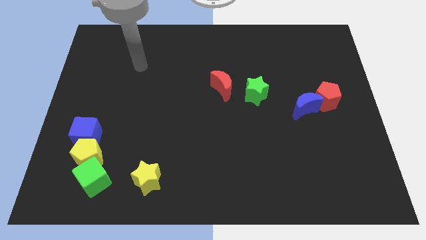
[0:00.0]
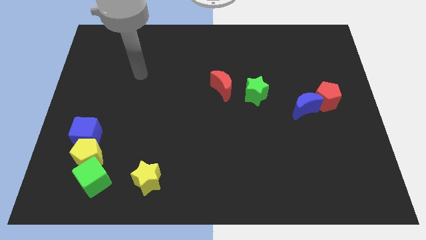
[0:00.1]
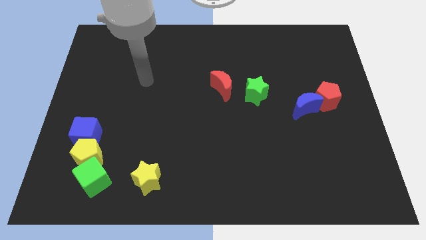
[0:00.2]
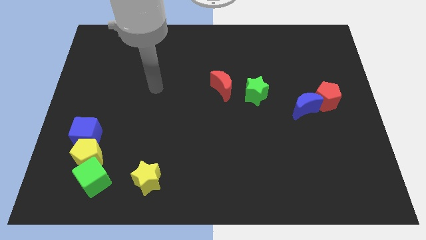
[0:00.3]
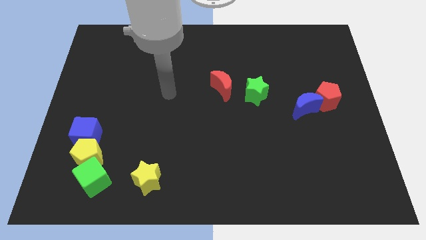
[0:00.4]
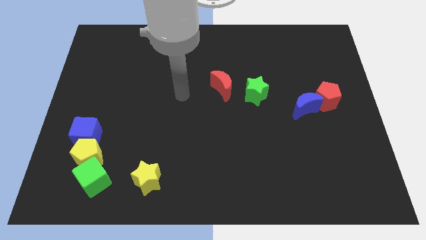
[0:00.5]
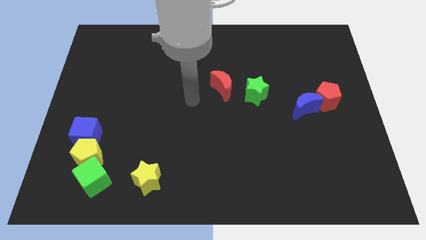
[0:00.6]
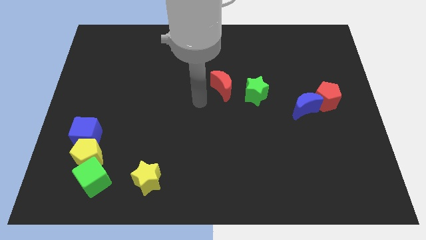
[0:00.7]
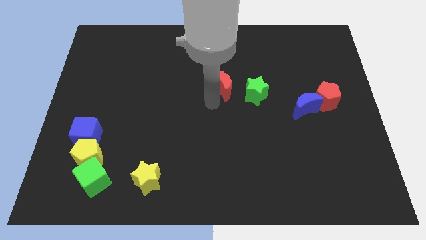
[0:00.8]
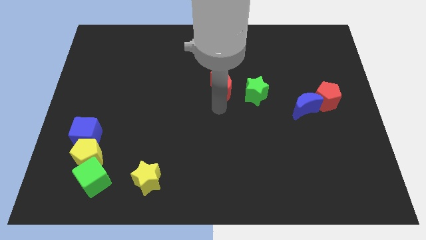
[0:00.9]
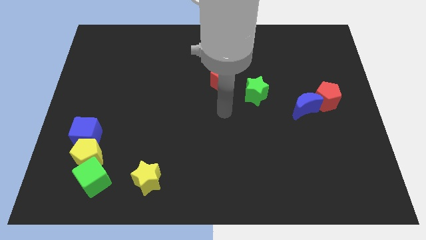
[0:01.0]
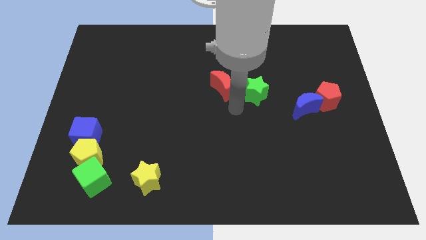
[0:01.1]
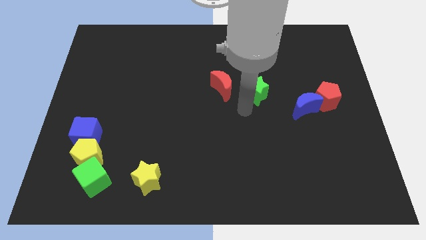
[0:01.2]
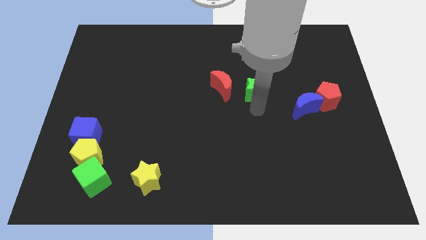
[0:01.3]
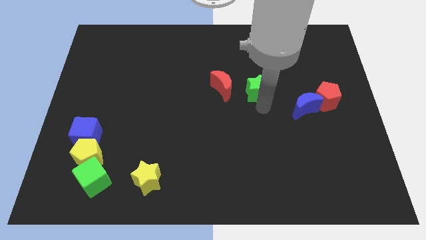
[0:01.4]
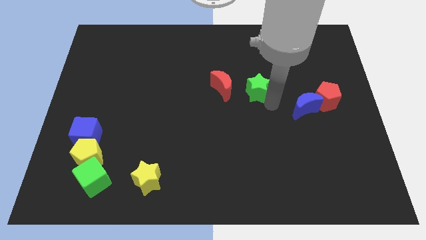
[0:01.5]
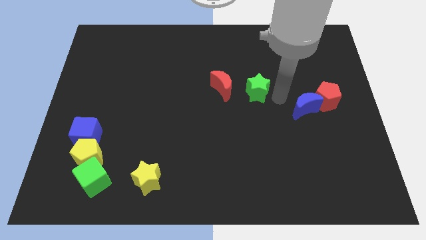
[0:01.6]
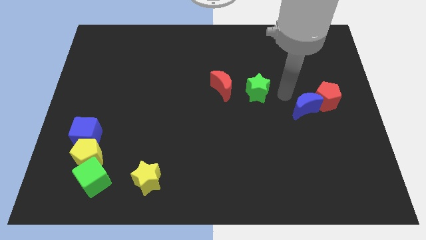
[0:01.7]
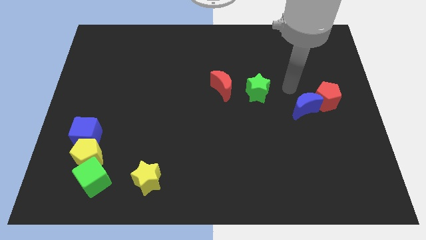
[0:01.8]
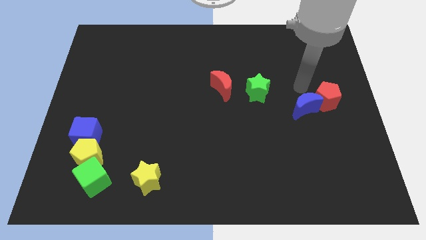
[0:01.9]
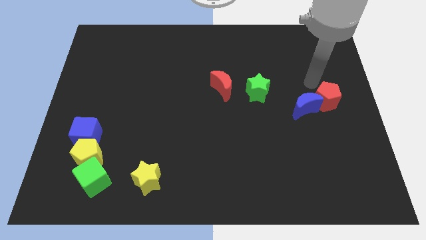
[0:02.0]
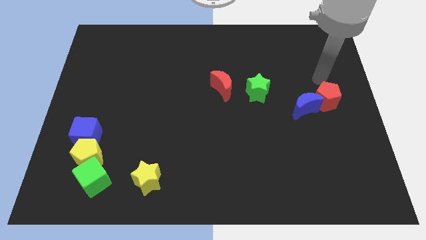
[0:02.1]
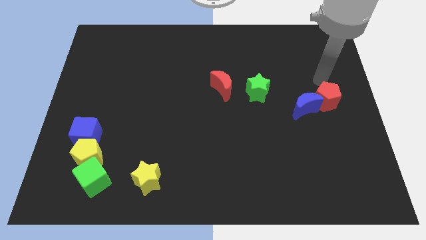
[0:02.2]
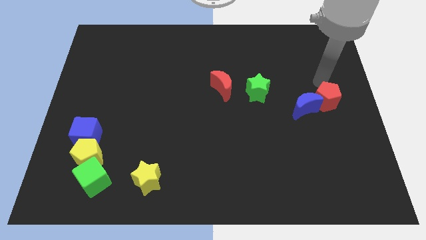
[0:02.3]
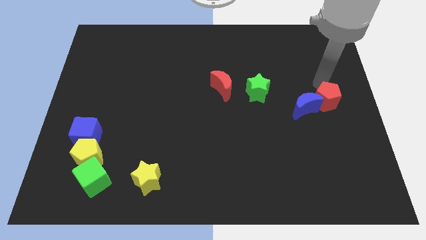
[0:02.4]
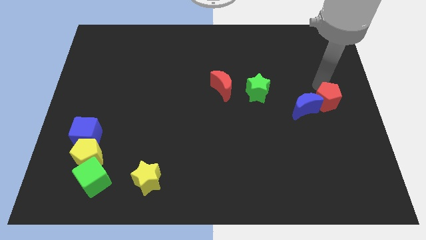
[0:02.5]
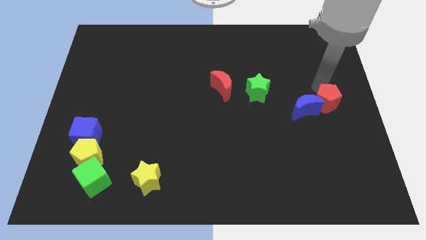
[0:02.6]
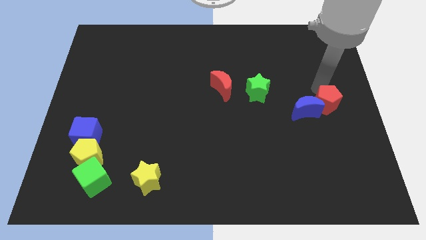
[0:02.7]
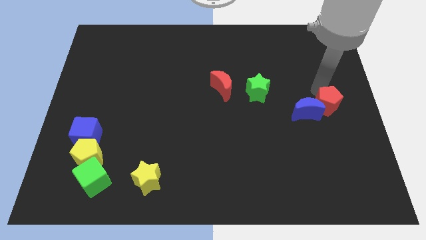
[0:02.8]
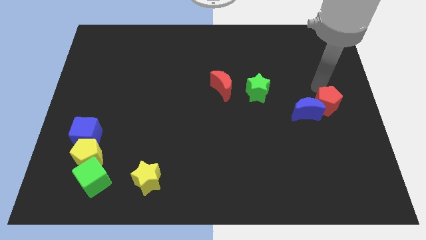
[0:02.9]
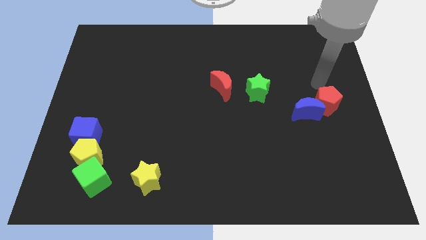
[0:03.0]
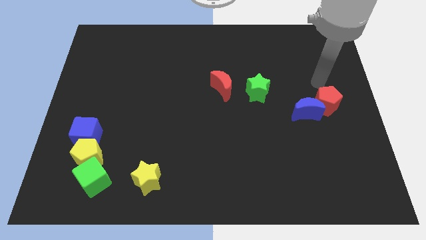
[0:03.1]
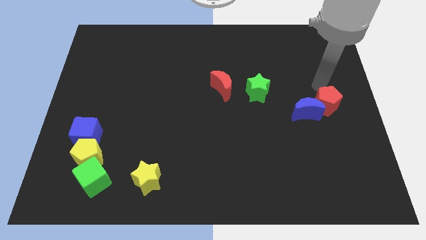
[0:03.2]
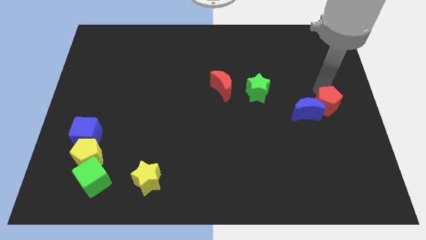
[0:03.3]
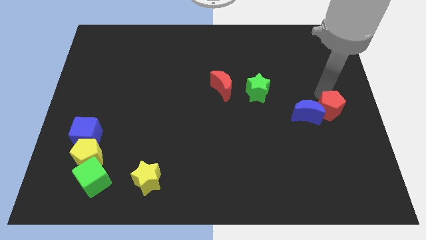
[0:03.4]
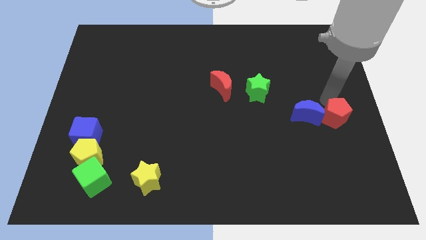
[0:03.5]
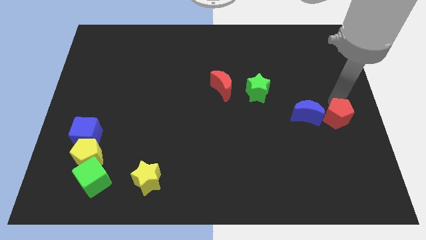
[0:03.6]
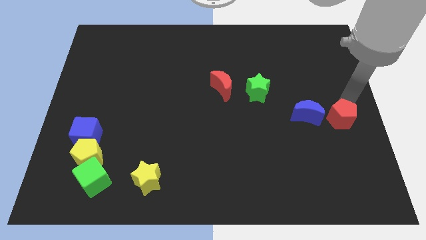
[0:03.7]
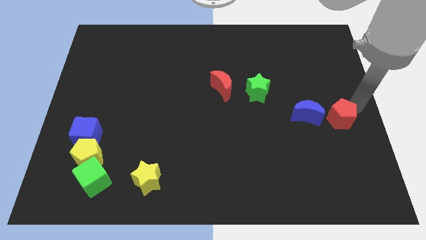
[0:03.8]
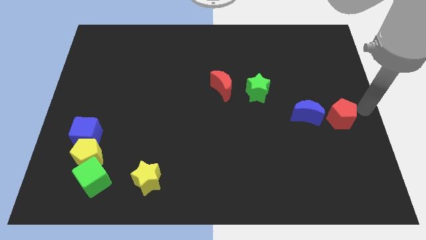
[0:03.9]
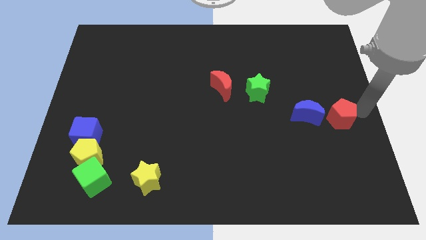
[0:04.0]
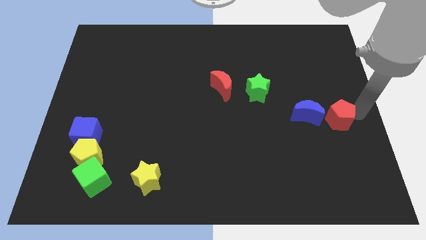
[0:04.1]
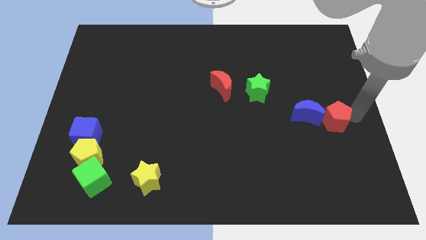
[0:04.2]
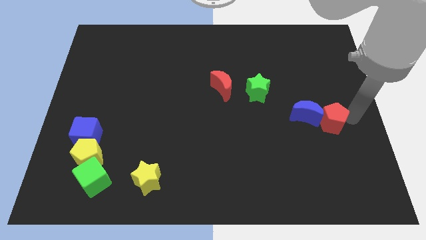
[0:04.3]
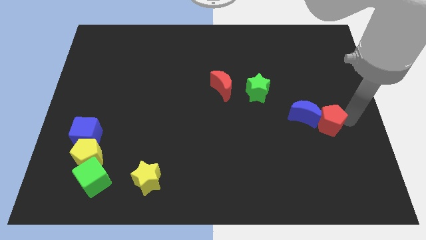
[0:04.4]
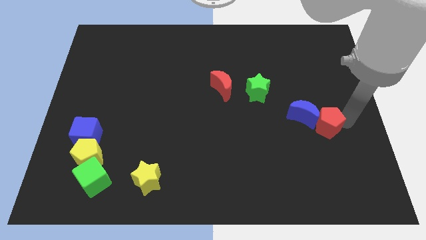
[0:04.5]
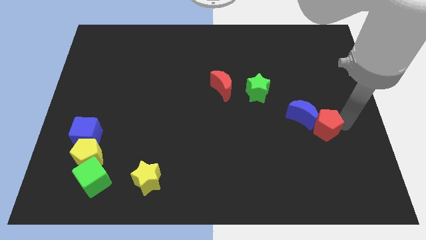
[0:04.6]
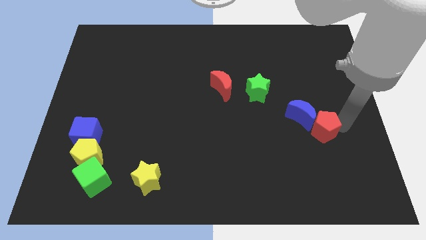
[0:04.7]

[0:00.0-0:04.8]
slightly push the red pentagon downwards and to the left

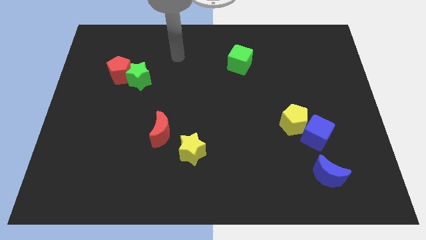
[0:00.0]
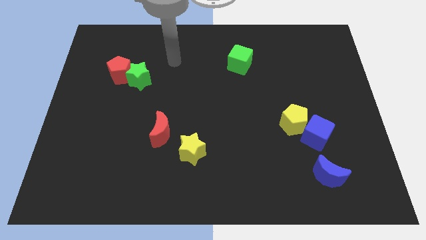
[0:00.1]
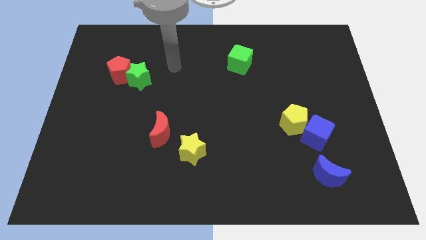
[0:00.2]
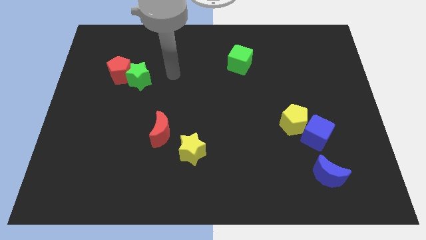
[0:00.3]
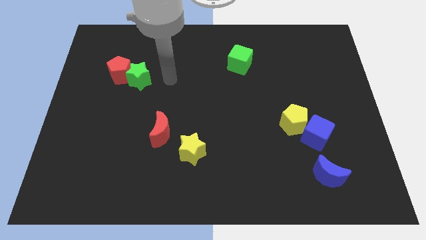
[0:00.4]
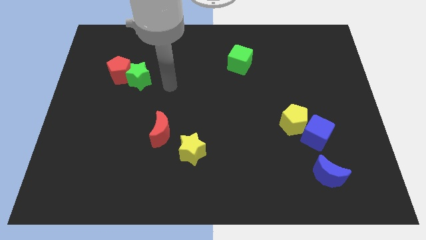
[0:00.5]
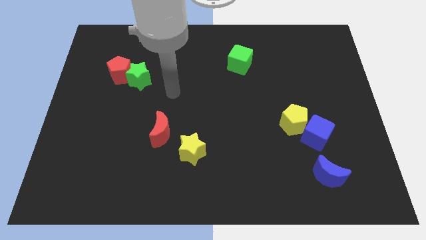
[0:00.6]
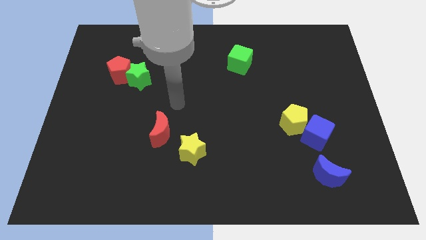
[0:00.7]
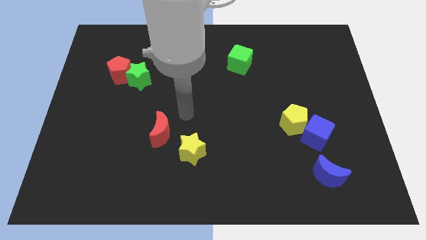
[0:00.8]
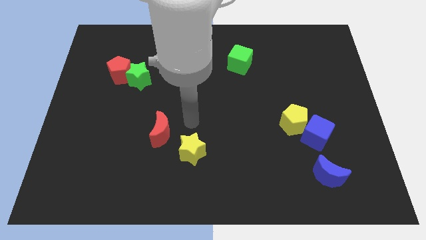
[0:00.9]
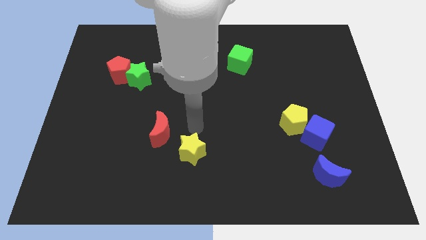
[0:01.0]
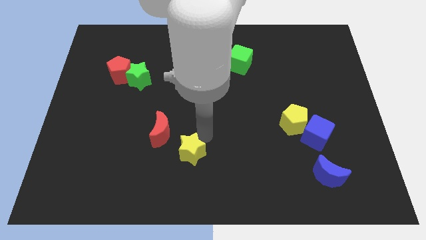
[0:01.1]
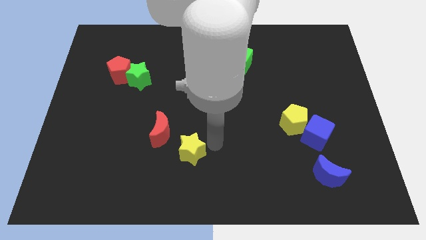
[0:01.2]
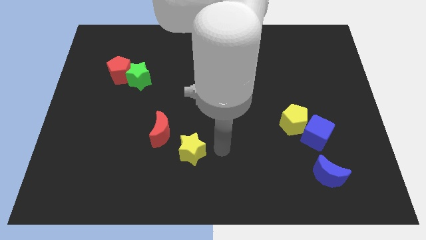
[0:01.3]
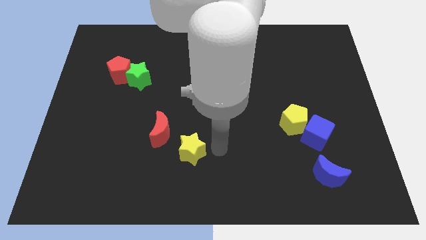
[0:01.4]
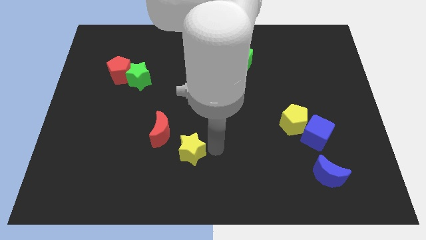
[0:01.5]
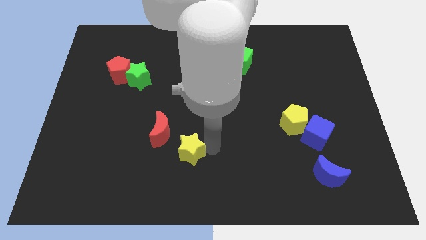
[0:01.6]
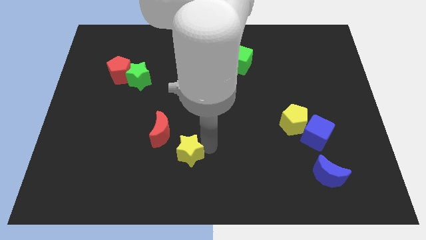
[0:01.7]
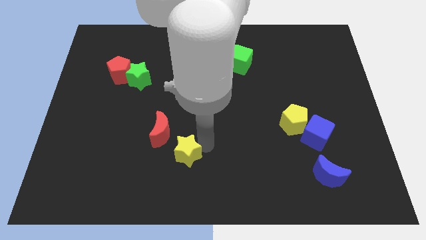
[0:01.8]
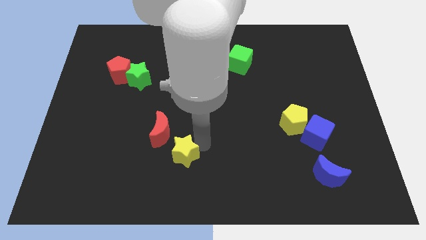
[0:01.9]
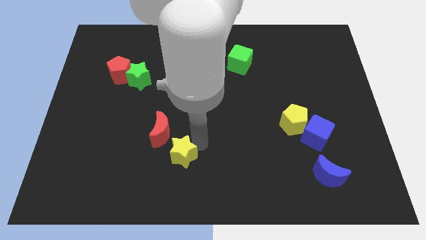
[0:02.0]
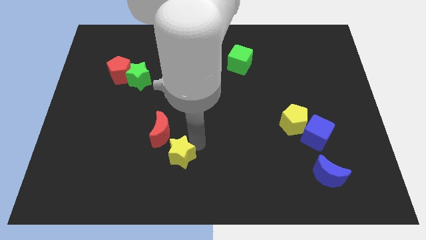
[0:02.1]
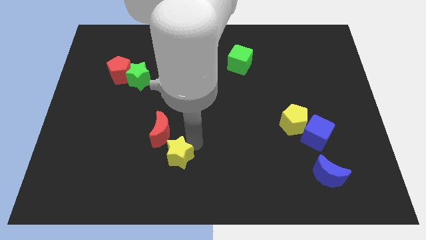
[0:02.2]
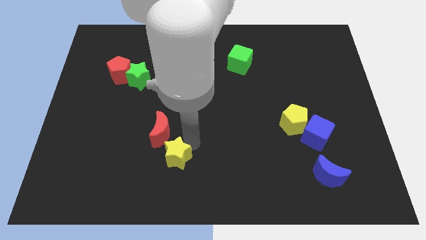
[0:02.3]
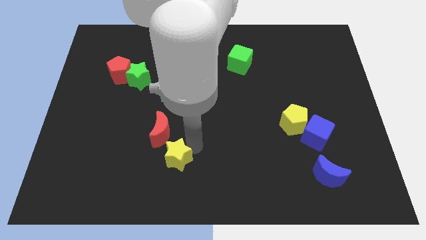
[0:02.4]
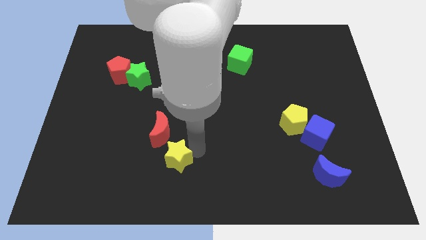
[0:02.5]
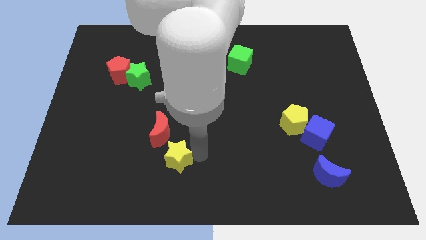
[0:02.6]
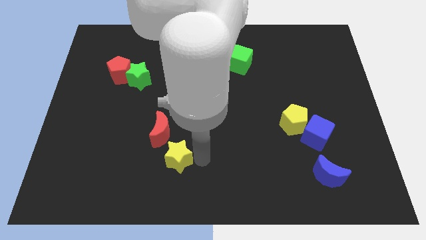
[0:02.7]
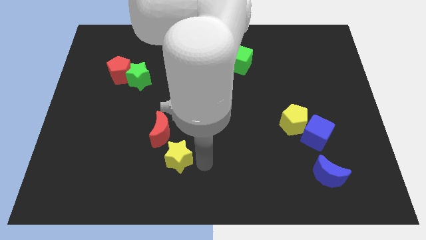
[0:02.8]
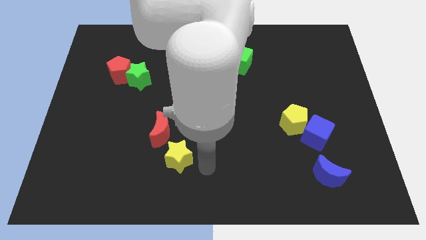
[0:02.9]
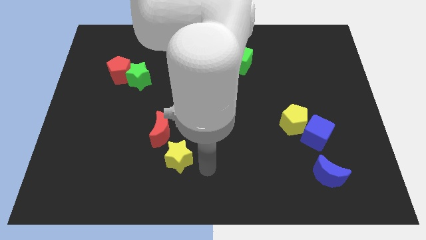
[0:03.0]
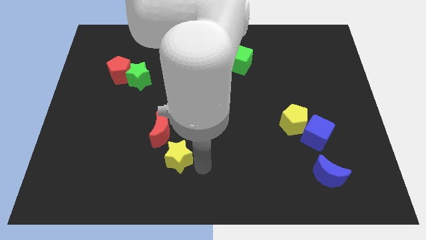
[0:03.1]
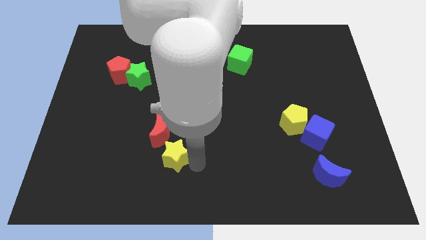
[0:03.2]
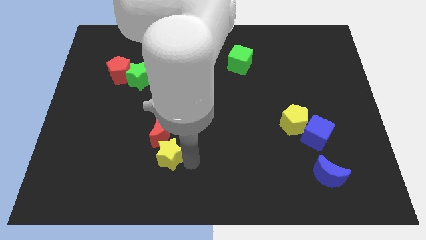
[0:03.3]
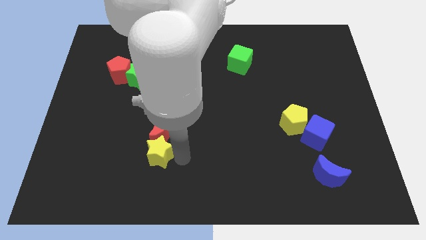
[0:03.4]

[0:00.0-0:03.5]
slide the yellow star slightly to the left
